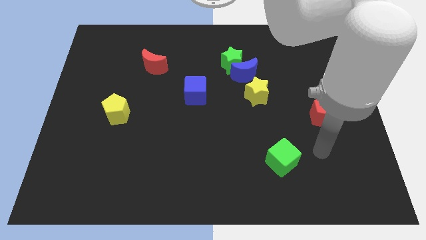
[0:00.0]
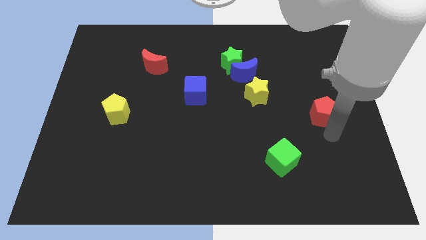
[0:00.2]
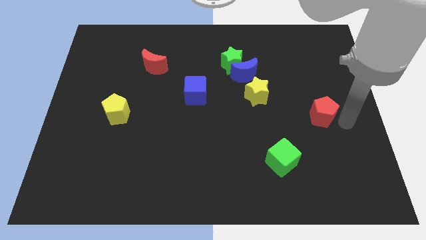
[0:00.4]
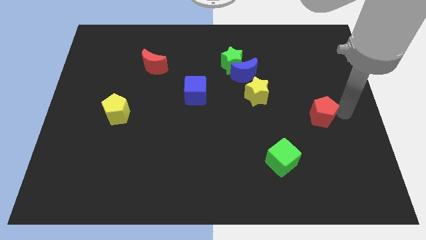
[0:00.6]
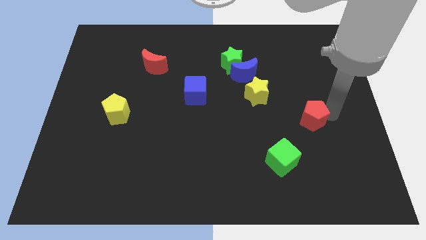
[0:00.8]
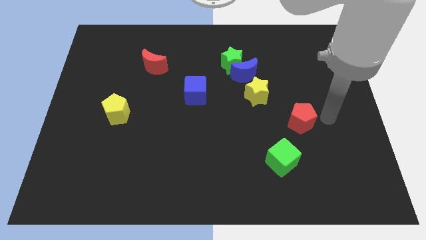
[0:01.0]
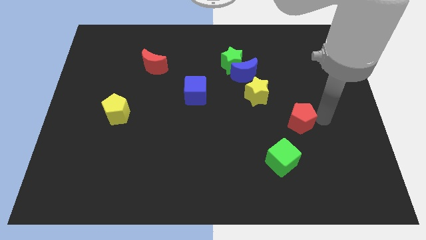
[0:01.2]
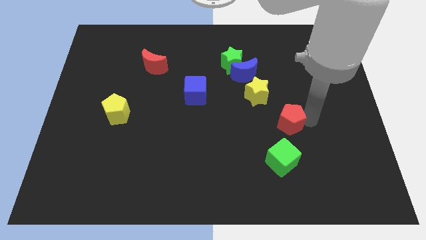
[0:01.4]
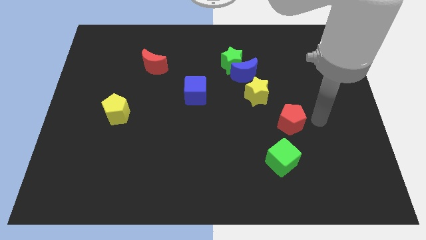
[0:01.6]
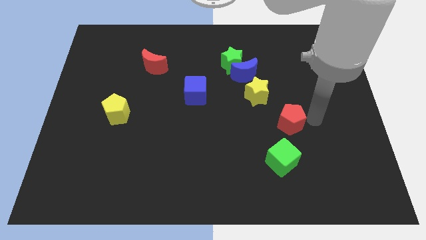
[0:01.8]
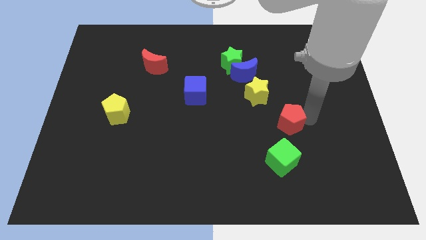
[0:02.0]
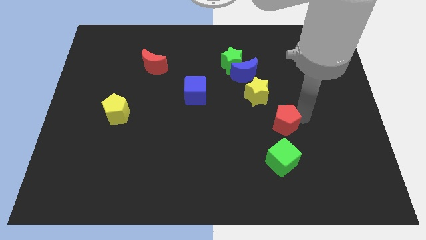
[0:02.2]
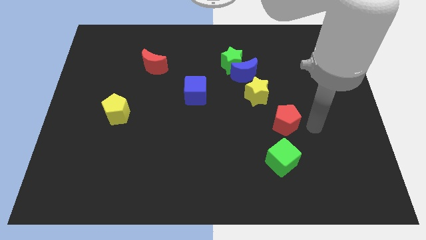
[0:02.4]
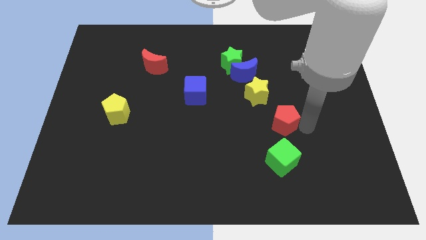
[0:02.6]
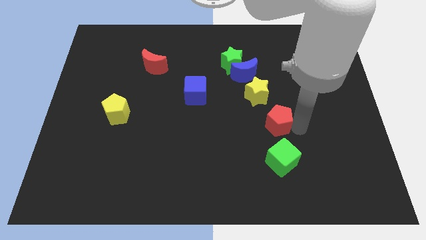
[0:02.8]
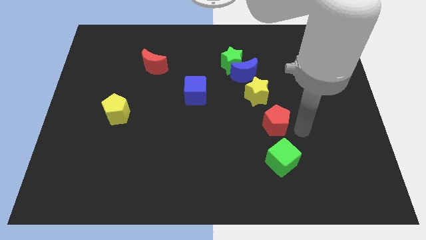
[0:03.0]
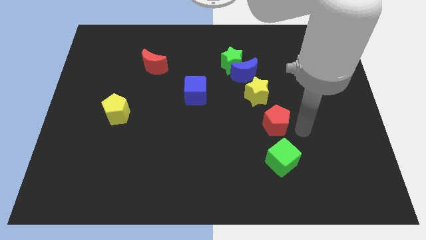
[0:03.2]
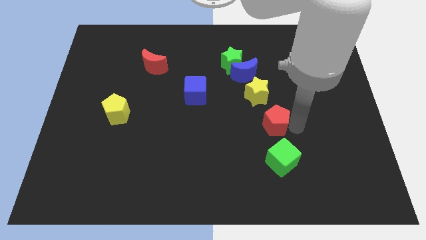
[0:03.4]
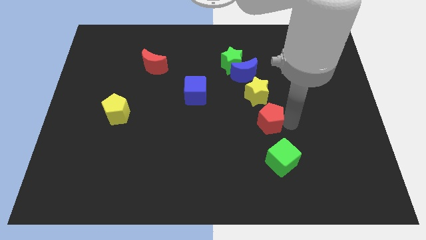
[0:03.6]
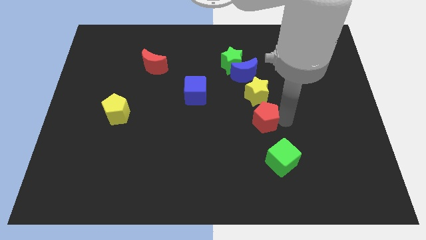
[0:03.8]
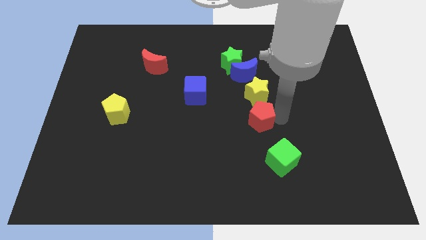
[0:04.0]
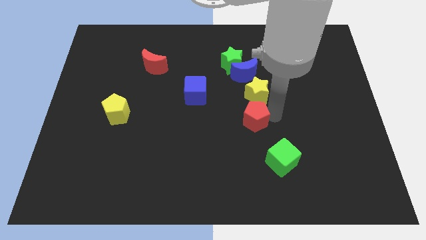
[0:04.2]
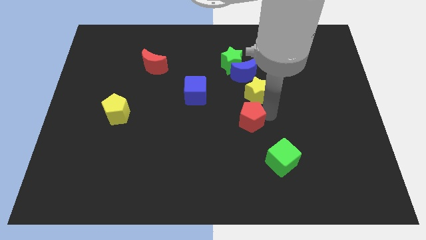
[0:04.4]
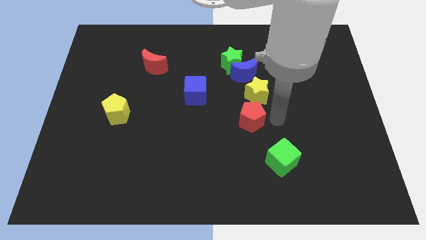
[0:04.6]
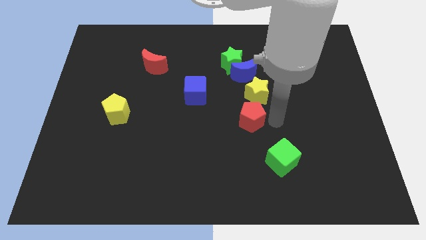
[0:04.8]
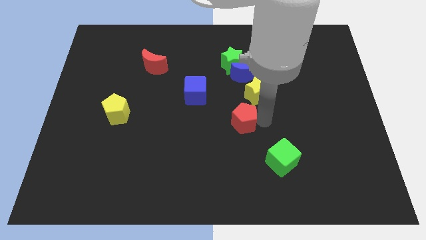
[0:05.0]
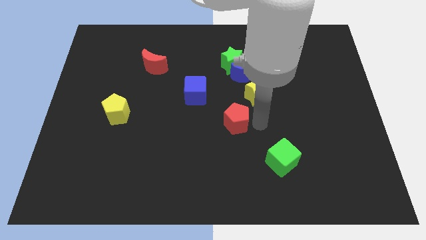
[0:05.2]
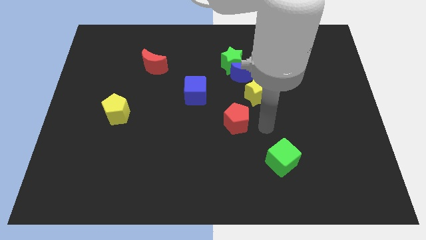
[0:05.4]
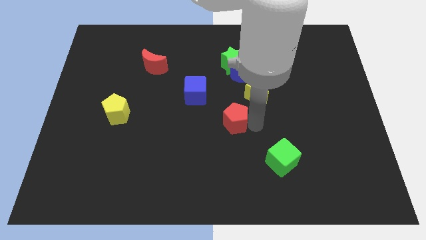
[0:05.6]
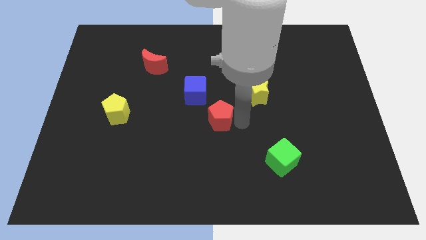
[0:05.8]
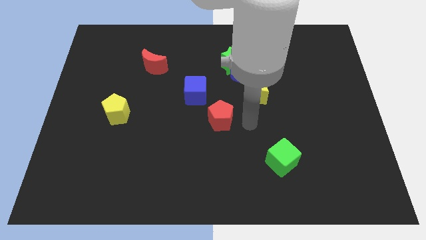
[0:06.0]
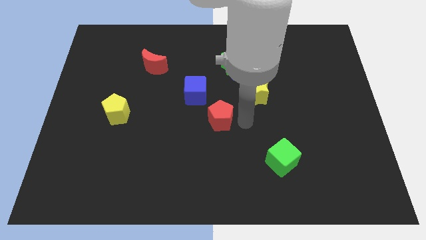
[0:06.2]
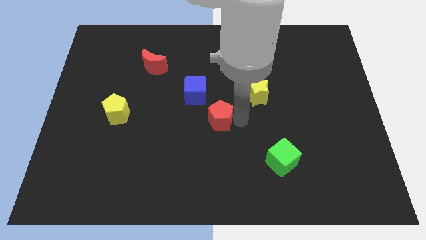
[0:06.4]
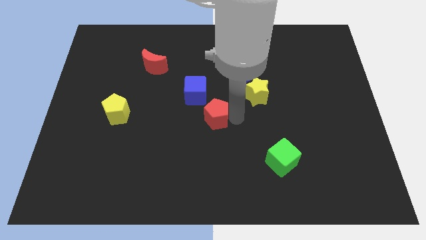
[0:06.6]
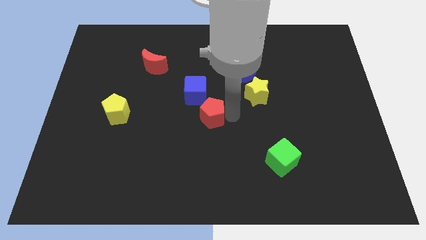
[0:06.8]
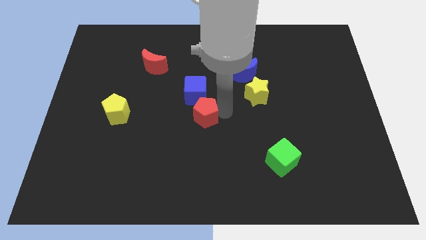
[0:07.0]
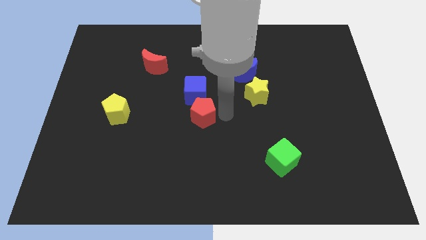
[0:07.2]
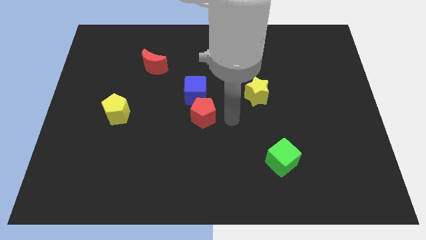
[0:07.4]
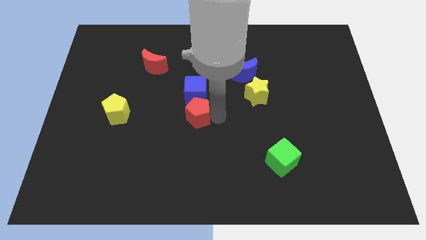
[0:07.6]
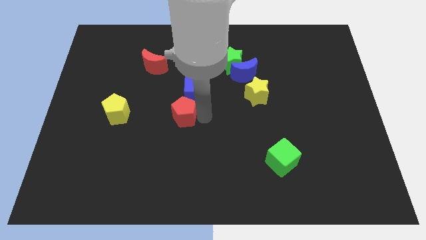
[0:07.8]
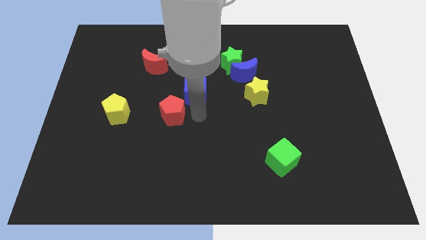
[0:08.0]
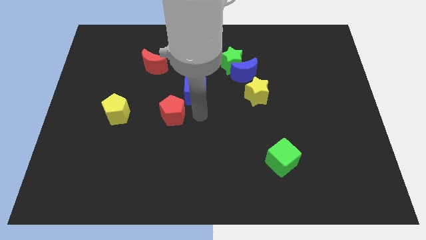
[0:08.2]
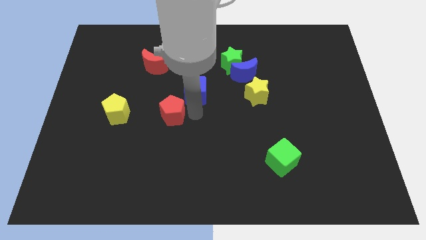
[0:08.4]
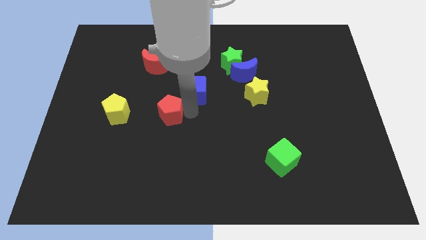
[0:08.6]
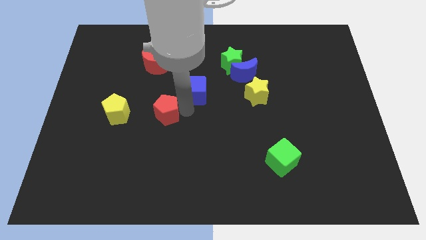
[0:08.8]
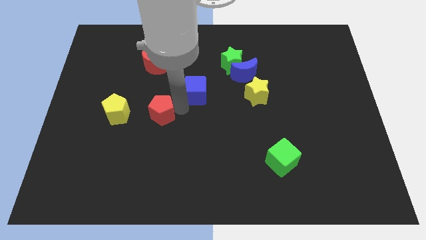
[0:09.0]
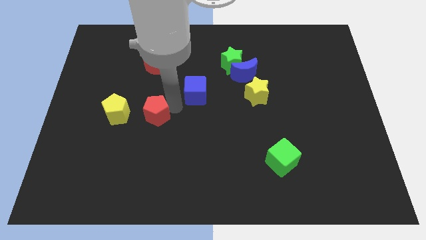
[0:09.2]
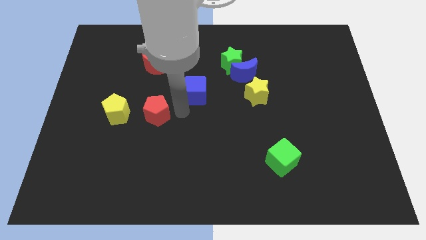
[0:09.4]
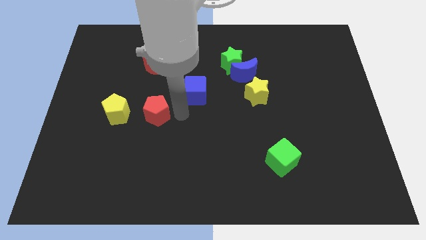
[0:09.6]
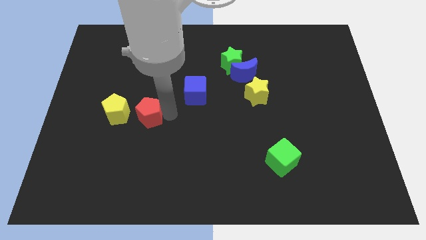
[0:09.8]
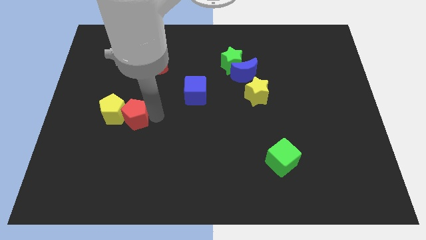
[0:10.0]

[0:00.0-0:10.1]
put the red pentagon close to the yellow pentagon

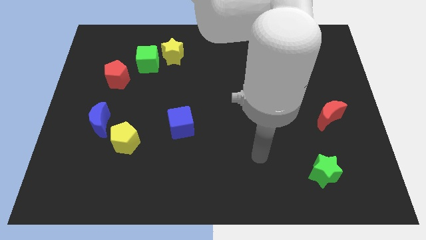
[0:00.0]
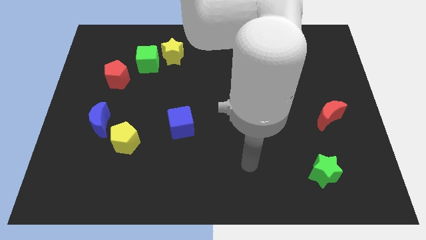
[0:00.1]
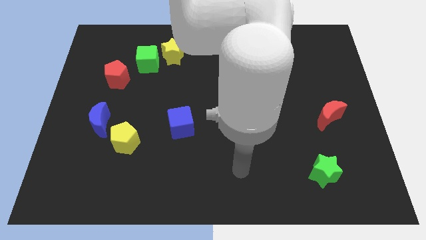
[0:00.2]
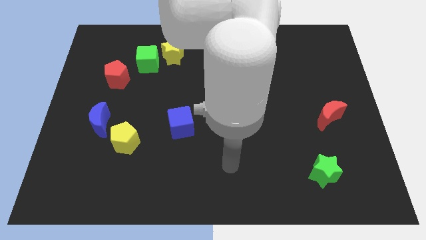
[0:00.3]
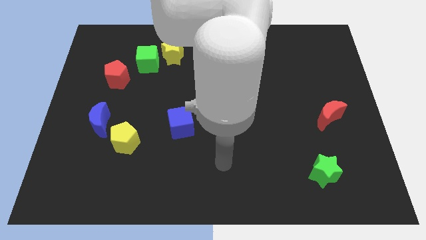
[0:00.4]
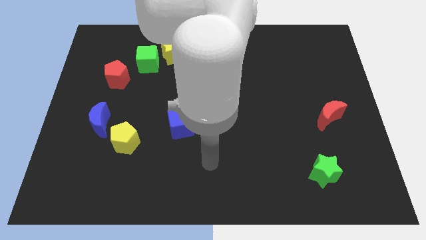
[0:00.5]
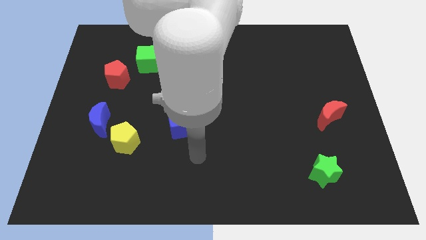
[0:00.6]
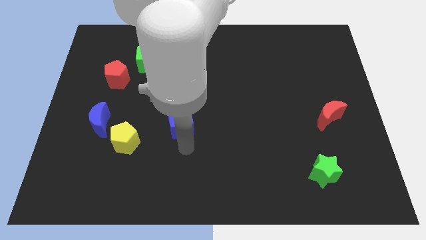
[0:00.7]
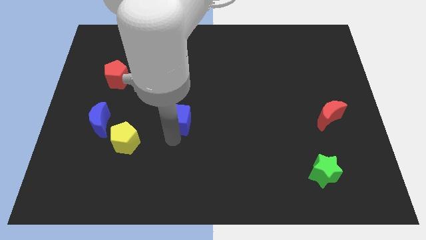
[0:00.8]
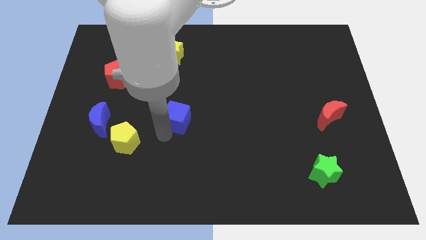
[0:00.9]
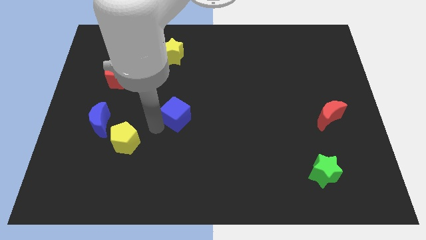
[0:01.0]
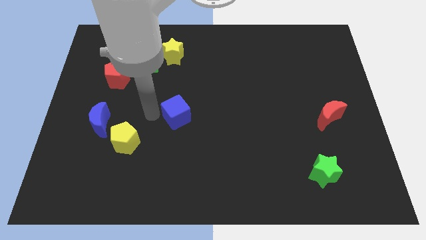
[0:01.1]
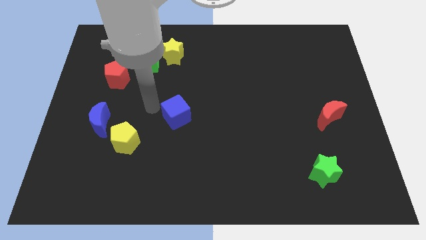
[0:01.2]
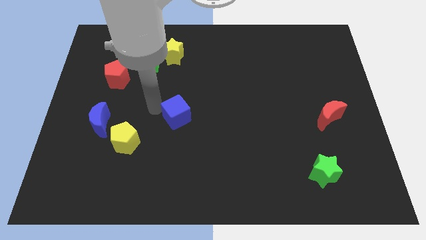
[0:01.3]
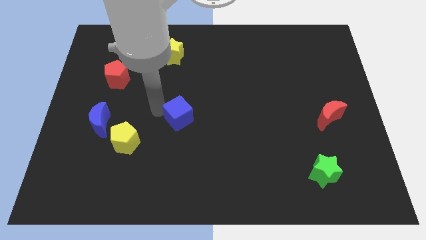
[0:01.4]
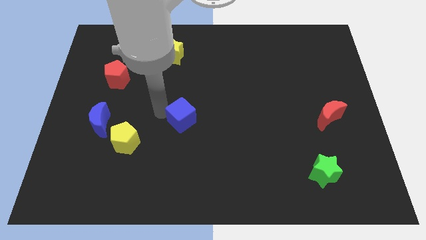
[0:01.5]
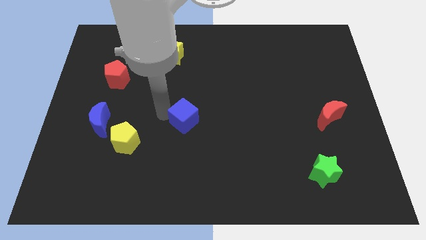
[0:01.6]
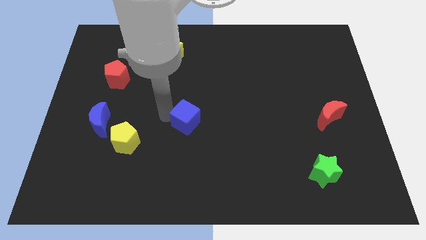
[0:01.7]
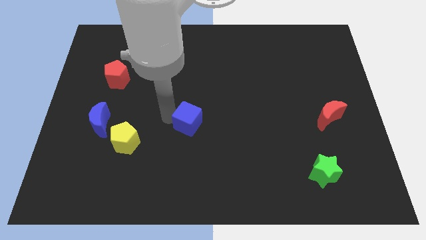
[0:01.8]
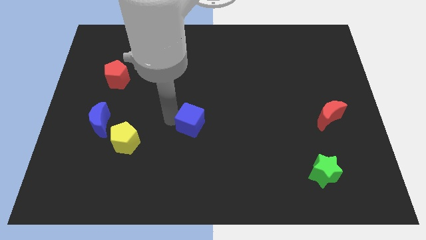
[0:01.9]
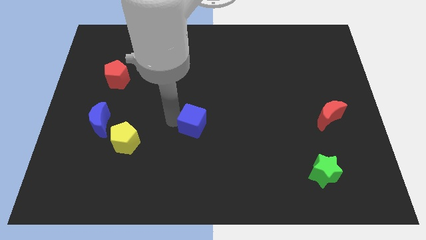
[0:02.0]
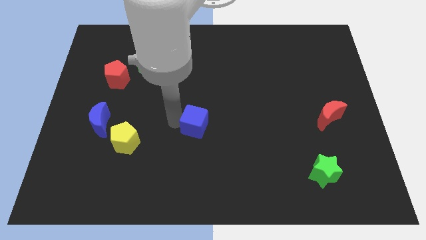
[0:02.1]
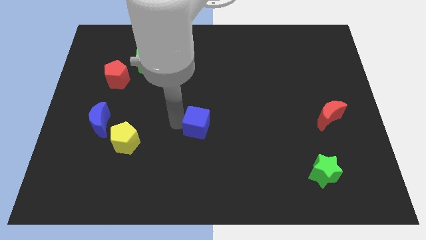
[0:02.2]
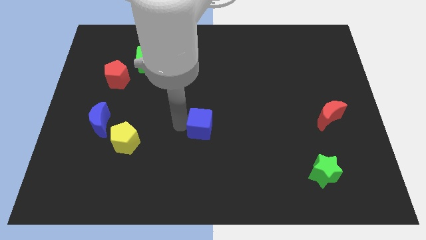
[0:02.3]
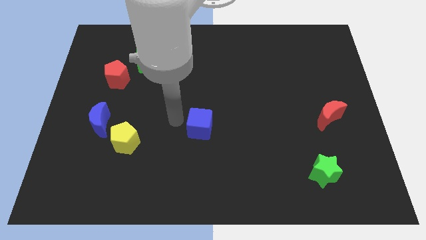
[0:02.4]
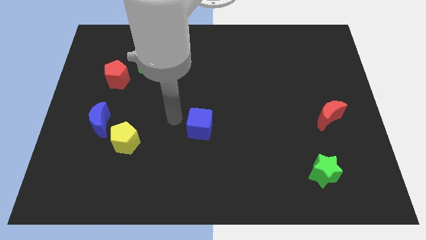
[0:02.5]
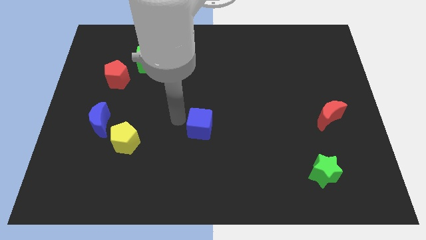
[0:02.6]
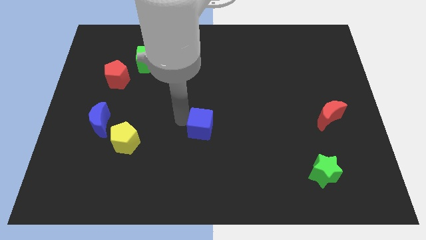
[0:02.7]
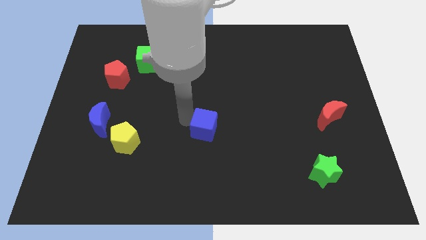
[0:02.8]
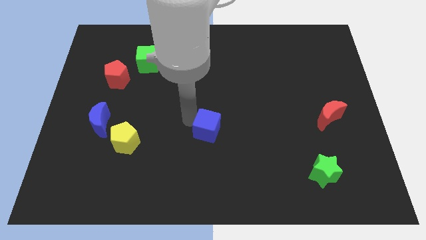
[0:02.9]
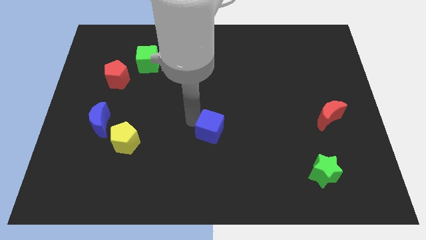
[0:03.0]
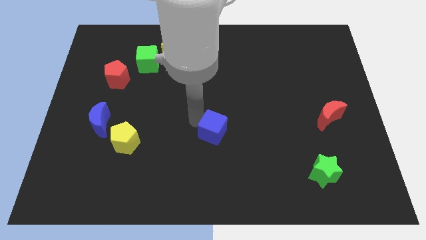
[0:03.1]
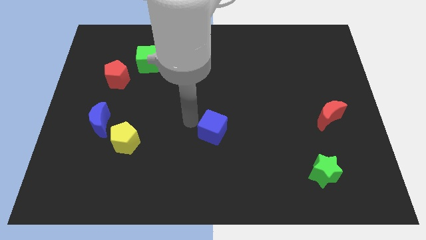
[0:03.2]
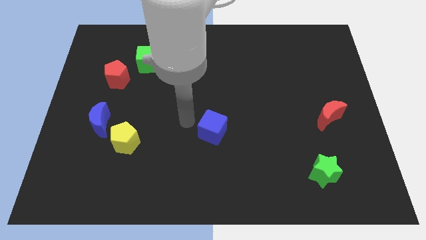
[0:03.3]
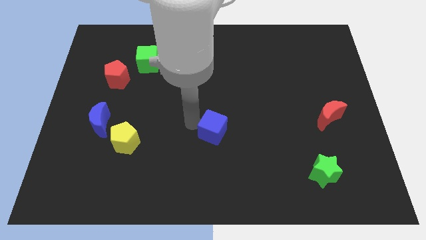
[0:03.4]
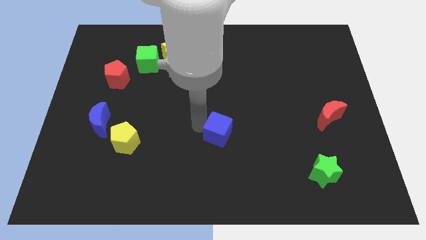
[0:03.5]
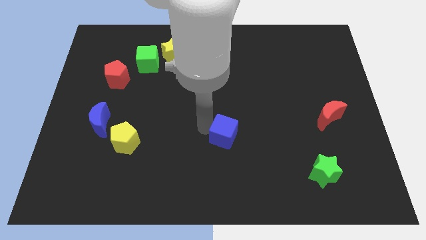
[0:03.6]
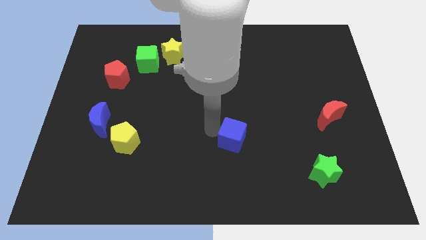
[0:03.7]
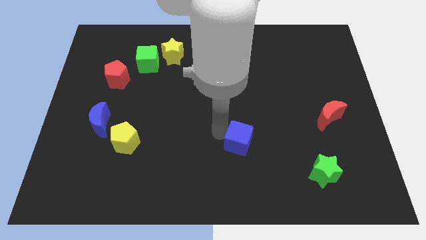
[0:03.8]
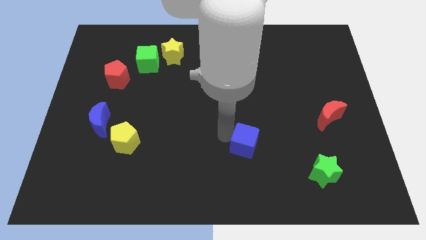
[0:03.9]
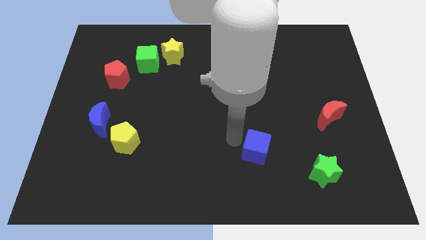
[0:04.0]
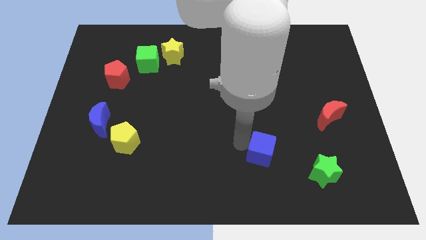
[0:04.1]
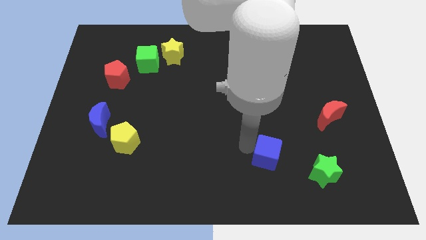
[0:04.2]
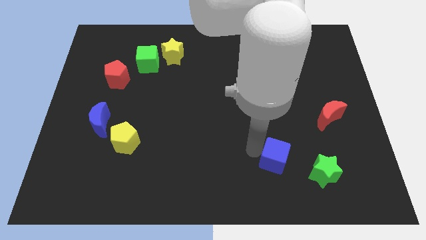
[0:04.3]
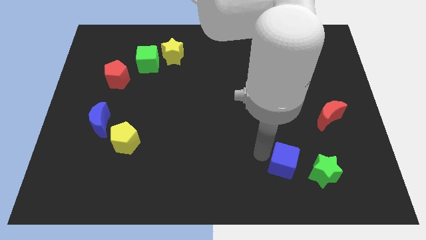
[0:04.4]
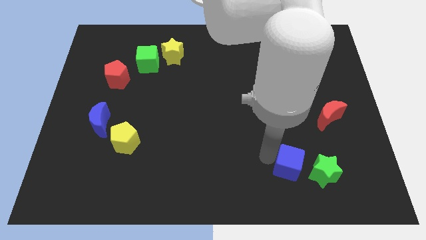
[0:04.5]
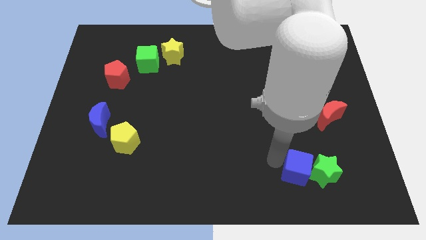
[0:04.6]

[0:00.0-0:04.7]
slide the blue cube to the green star
